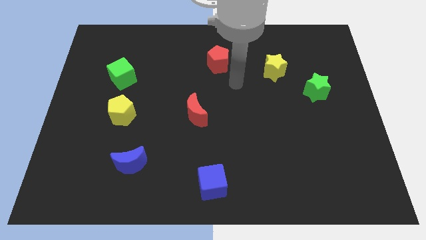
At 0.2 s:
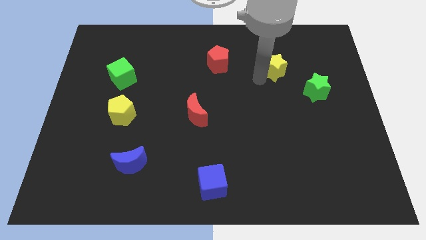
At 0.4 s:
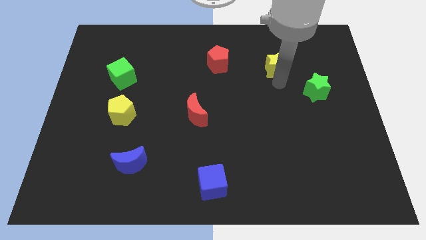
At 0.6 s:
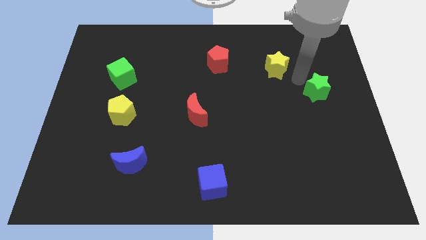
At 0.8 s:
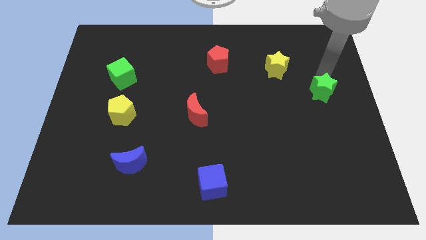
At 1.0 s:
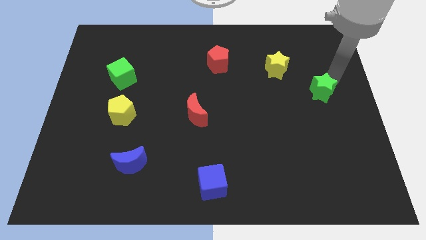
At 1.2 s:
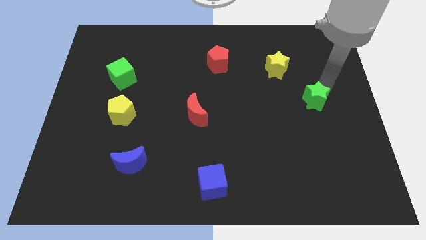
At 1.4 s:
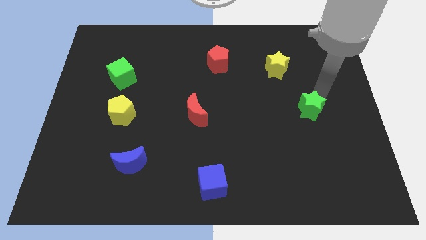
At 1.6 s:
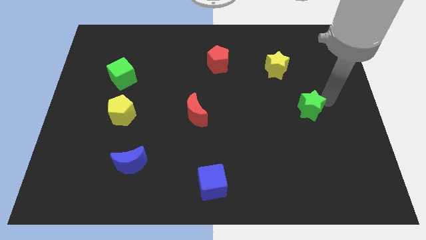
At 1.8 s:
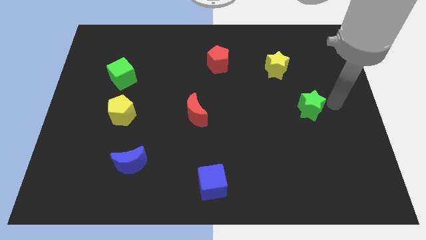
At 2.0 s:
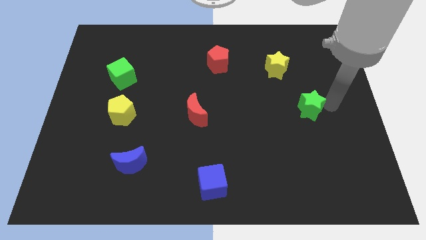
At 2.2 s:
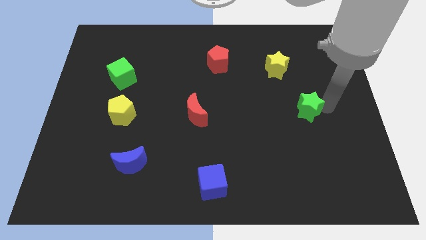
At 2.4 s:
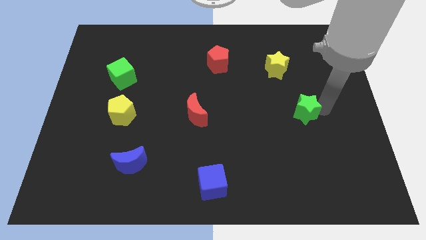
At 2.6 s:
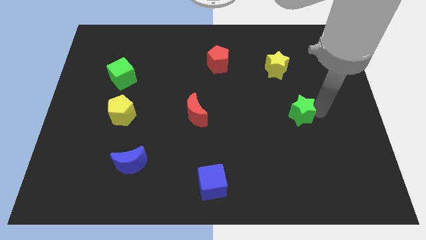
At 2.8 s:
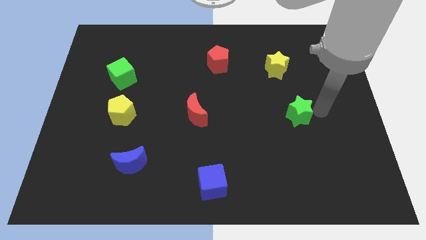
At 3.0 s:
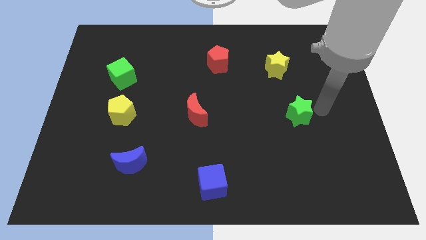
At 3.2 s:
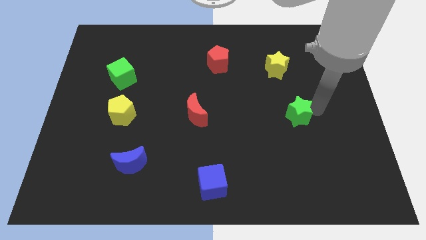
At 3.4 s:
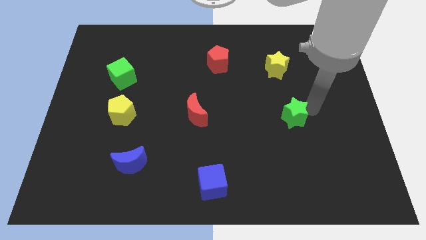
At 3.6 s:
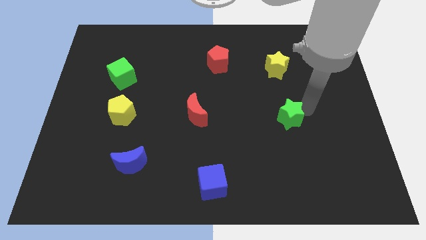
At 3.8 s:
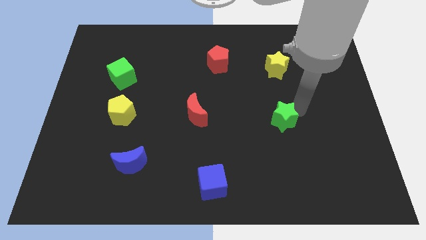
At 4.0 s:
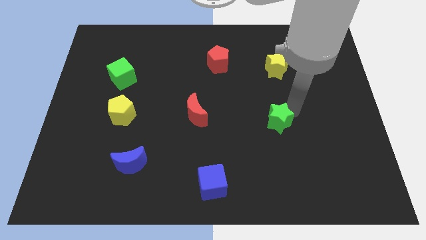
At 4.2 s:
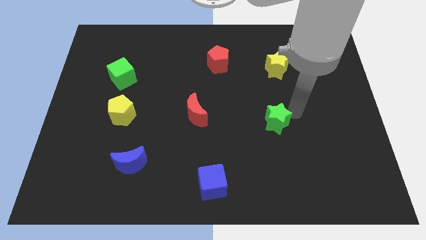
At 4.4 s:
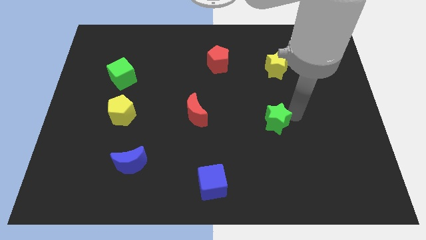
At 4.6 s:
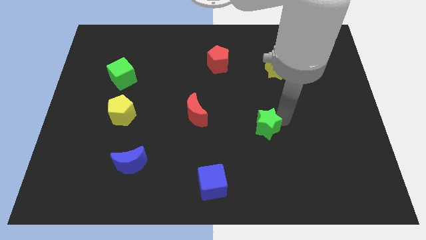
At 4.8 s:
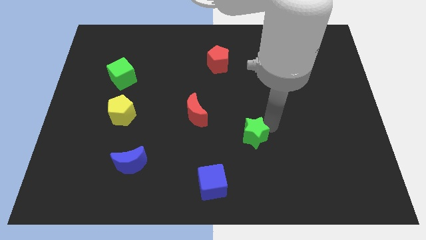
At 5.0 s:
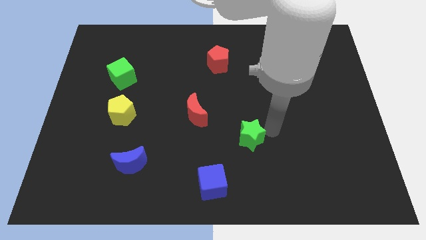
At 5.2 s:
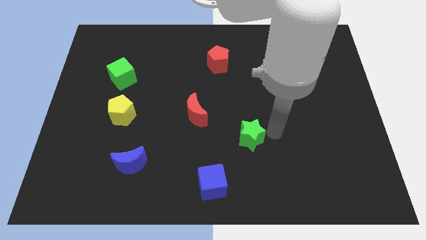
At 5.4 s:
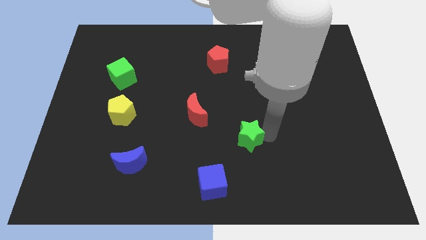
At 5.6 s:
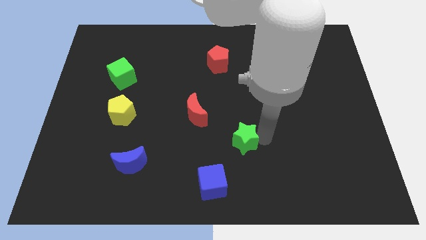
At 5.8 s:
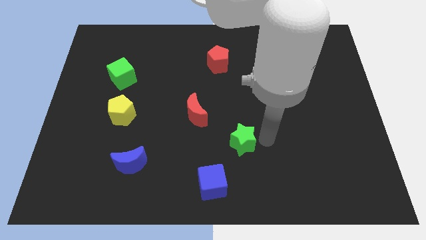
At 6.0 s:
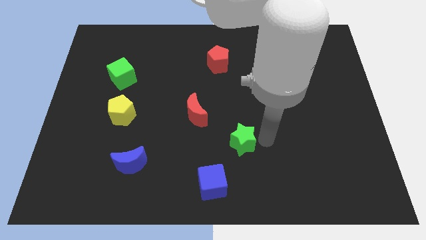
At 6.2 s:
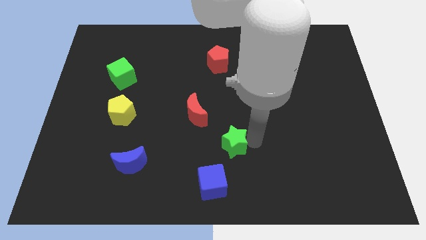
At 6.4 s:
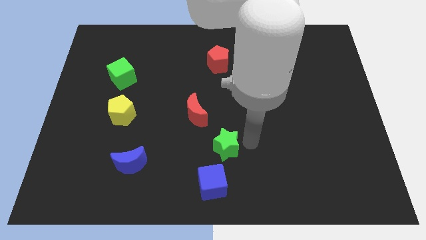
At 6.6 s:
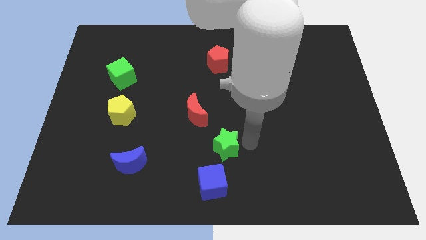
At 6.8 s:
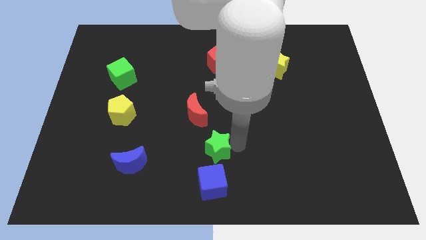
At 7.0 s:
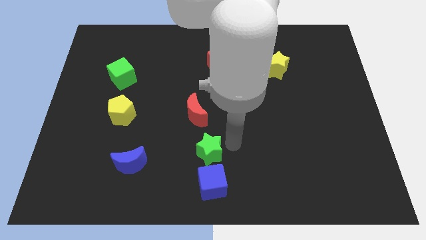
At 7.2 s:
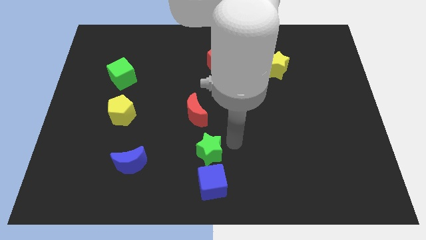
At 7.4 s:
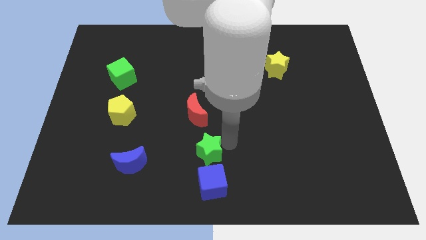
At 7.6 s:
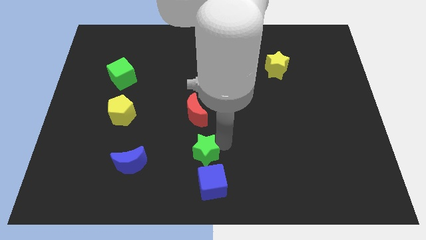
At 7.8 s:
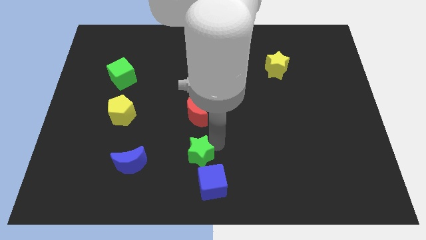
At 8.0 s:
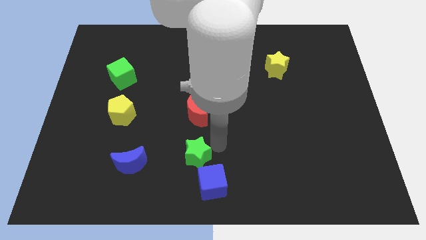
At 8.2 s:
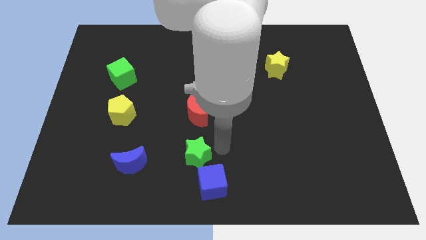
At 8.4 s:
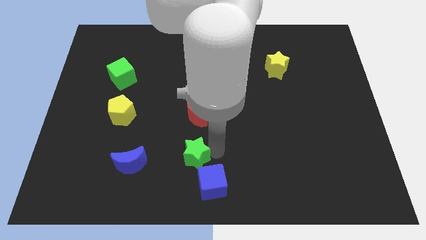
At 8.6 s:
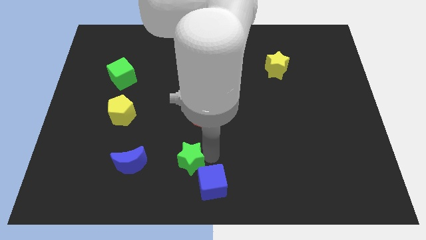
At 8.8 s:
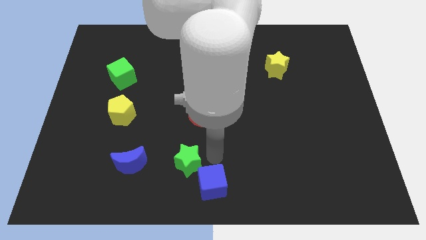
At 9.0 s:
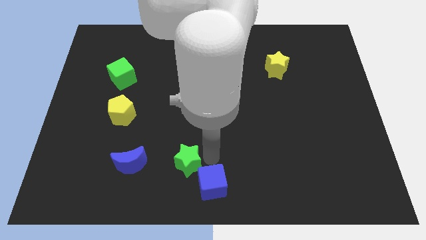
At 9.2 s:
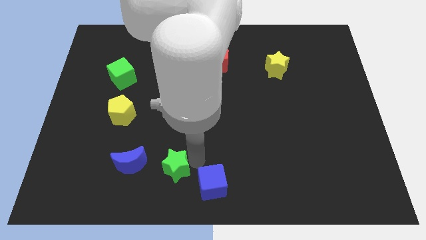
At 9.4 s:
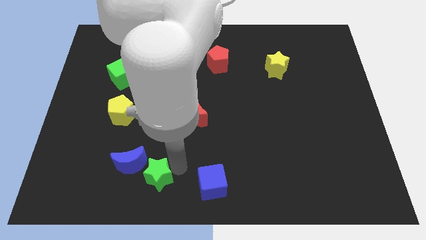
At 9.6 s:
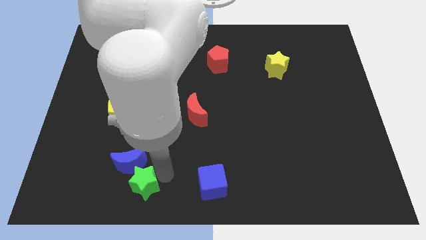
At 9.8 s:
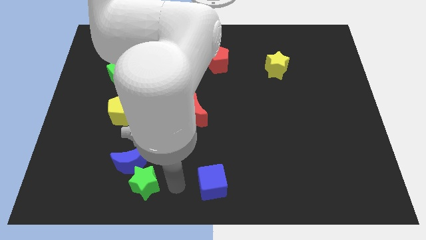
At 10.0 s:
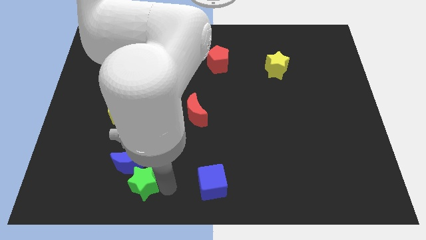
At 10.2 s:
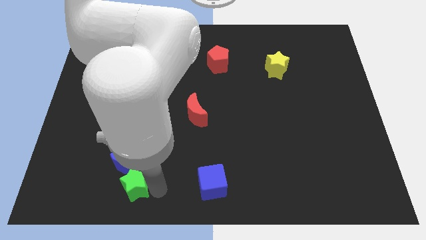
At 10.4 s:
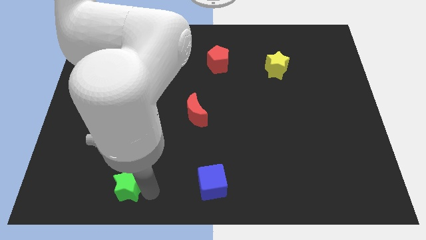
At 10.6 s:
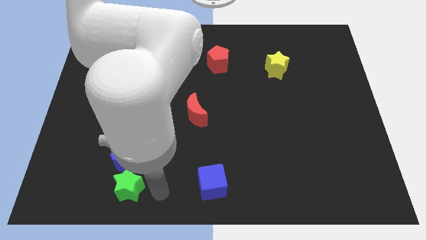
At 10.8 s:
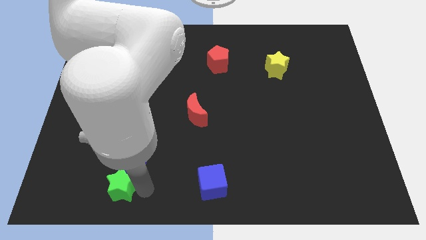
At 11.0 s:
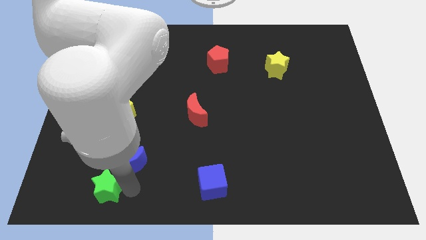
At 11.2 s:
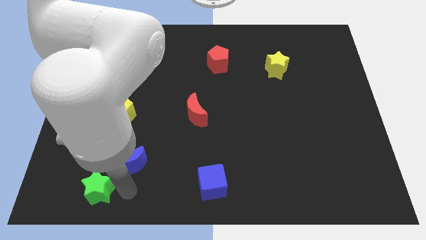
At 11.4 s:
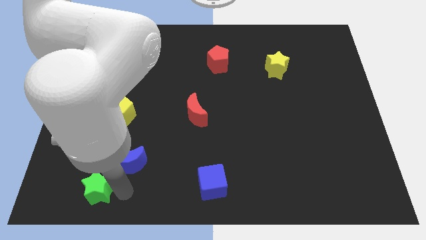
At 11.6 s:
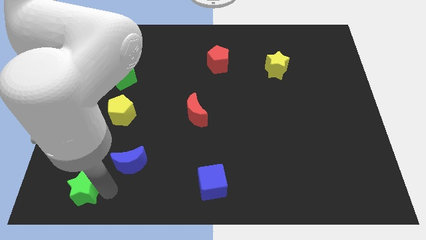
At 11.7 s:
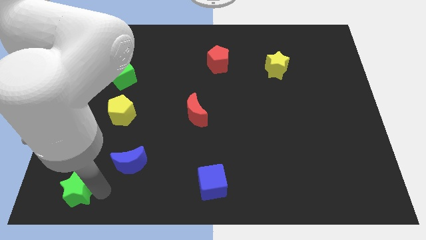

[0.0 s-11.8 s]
put the green star to the bottom left of the board

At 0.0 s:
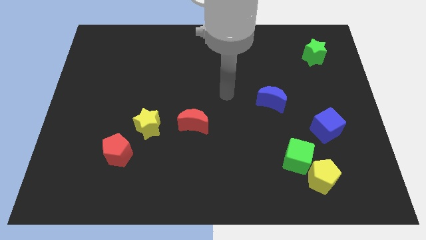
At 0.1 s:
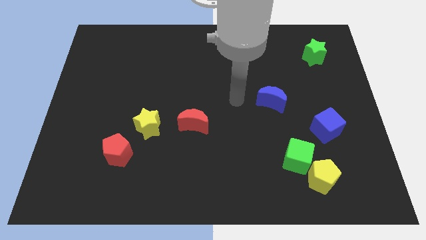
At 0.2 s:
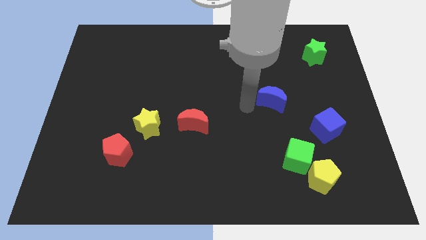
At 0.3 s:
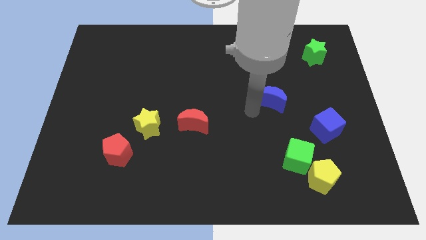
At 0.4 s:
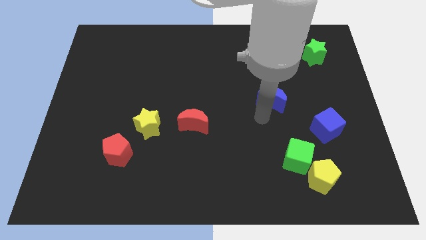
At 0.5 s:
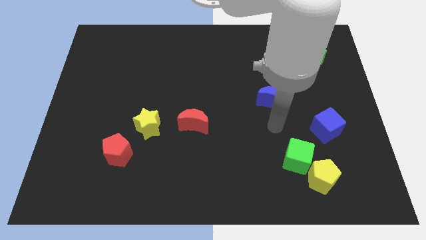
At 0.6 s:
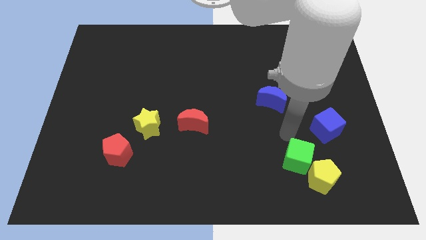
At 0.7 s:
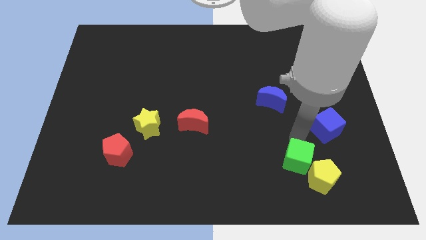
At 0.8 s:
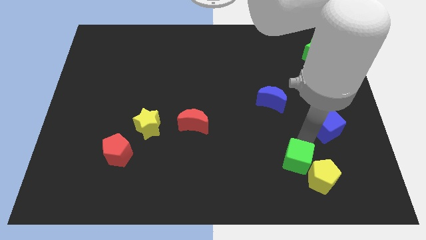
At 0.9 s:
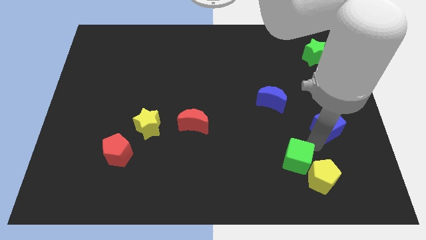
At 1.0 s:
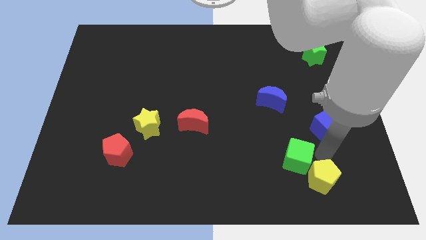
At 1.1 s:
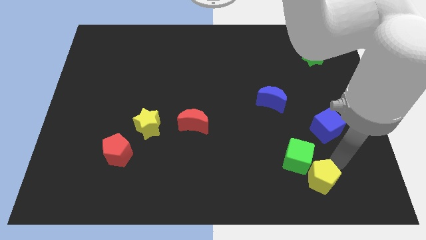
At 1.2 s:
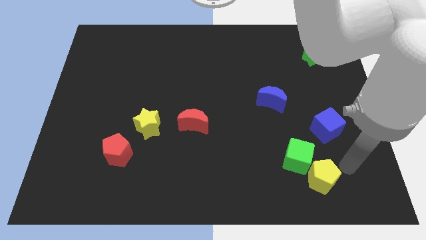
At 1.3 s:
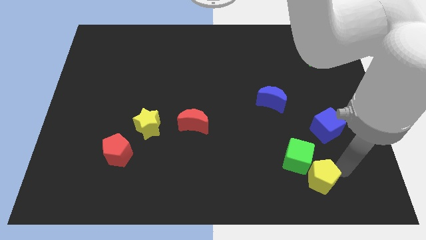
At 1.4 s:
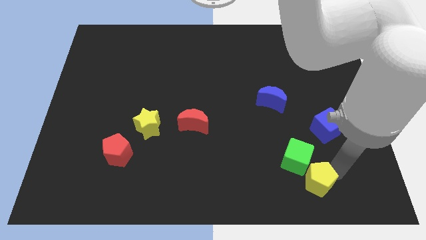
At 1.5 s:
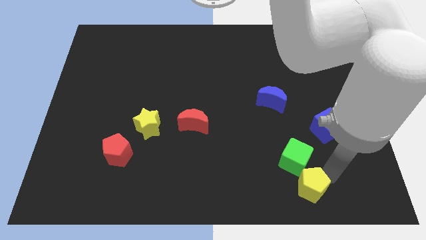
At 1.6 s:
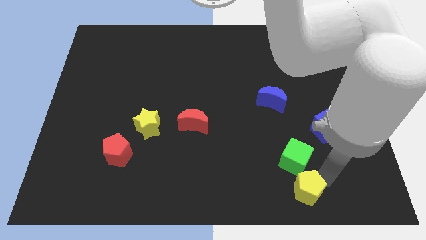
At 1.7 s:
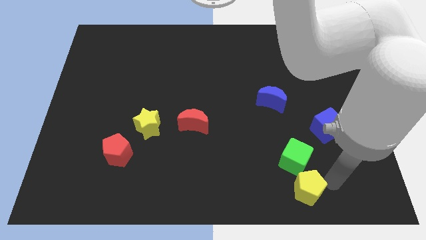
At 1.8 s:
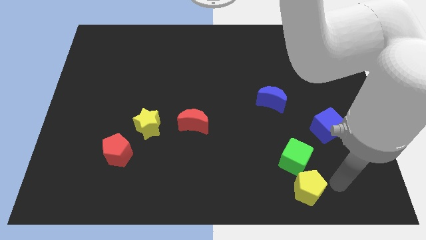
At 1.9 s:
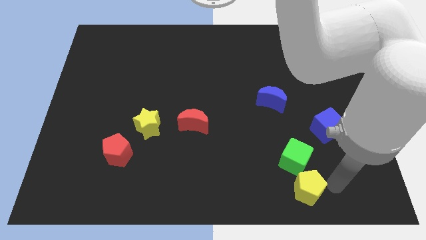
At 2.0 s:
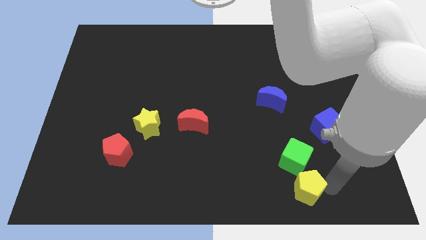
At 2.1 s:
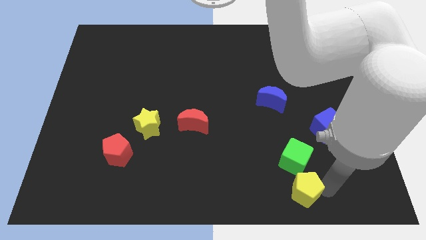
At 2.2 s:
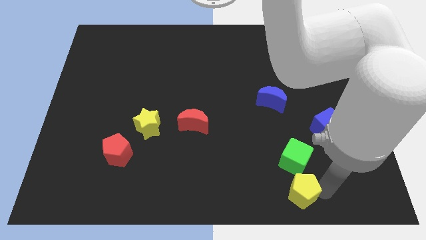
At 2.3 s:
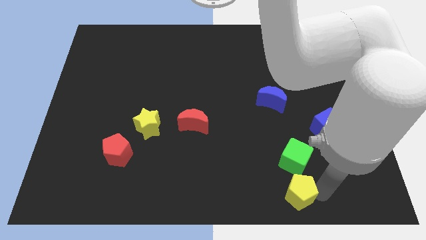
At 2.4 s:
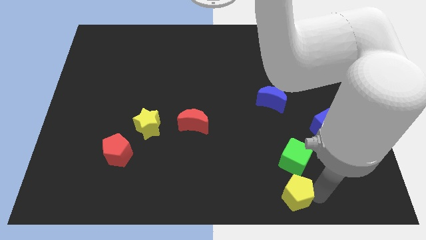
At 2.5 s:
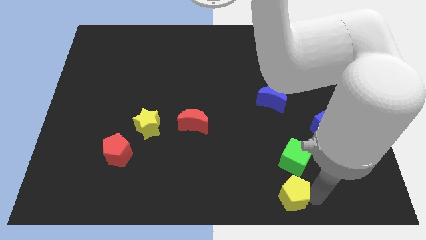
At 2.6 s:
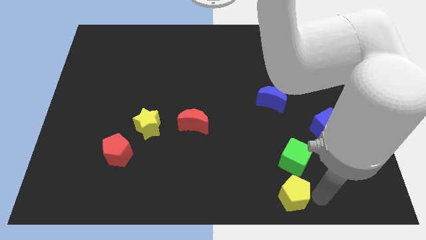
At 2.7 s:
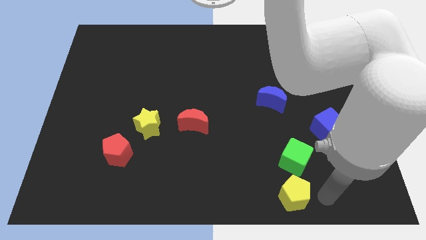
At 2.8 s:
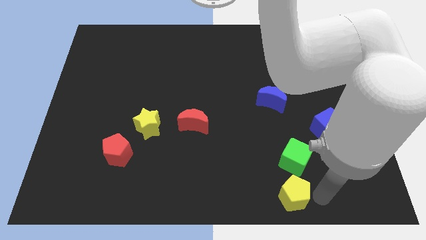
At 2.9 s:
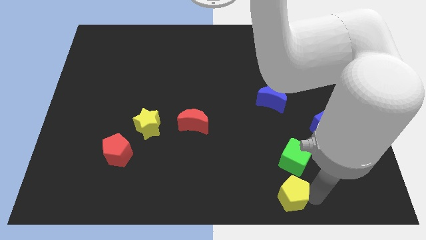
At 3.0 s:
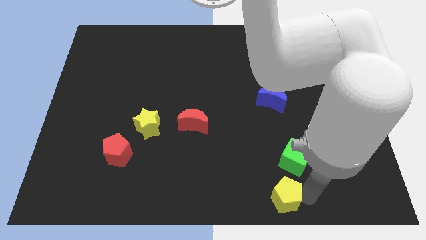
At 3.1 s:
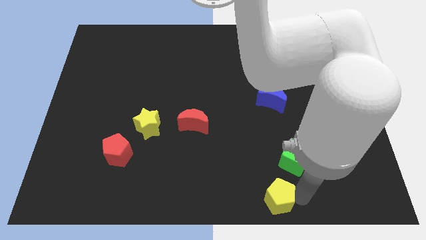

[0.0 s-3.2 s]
move the yellow pentagon to the bottom
